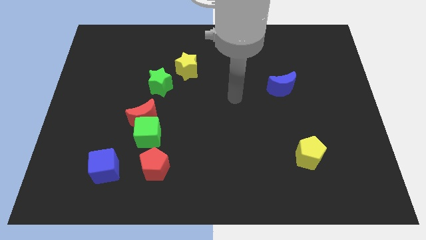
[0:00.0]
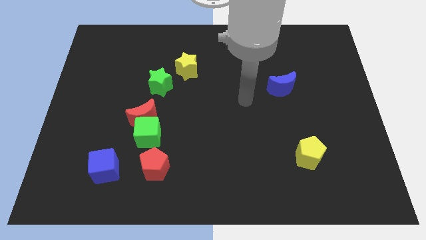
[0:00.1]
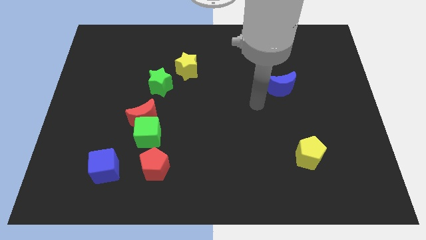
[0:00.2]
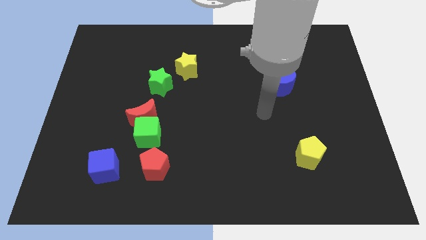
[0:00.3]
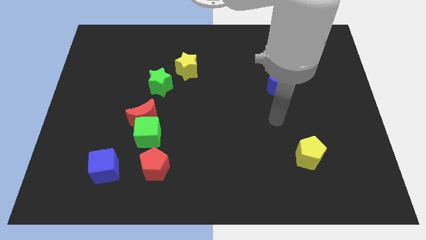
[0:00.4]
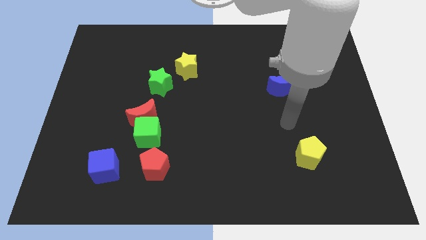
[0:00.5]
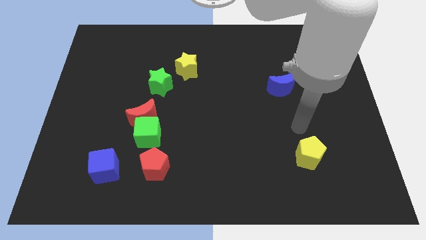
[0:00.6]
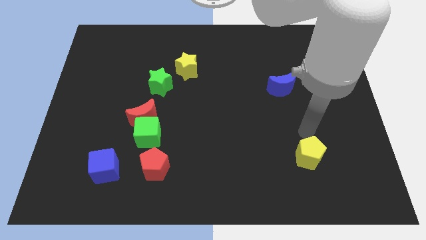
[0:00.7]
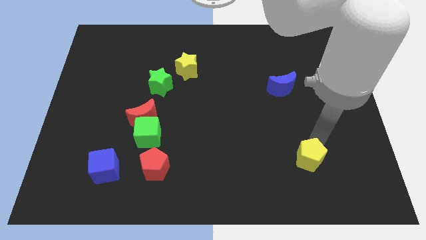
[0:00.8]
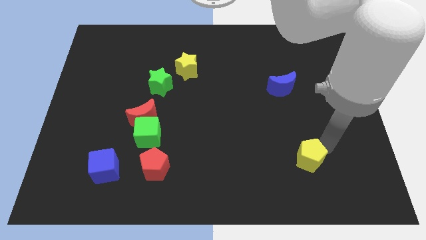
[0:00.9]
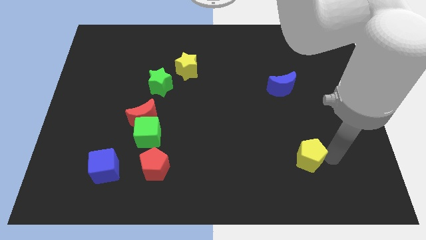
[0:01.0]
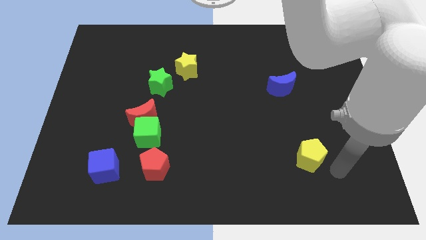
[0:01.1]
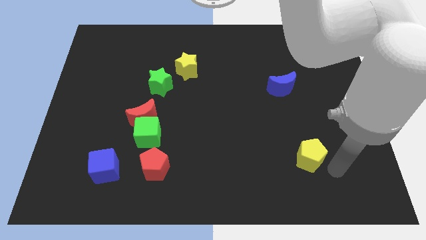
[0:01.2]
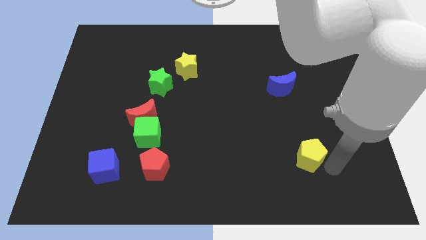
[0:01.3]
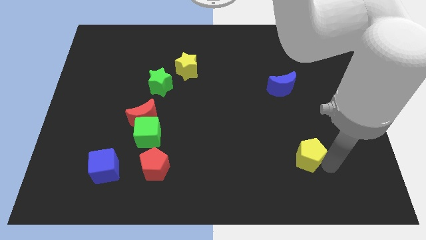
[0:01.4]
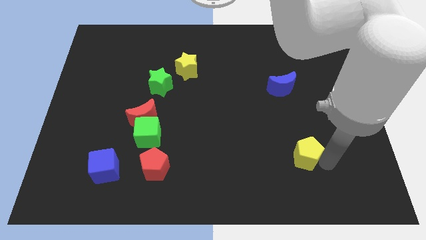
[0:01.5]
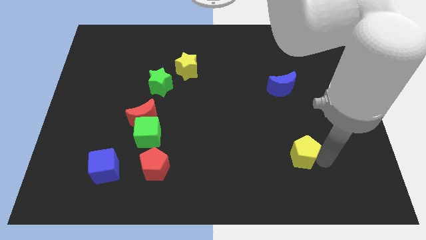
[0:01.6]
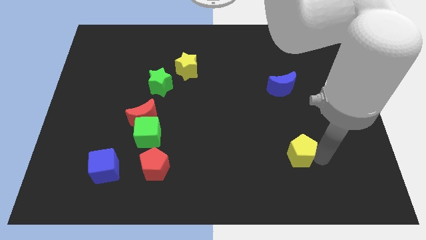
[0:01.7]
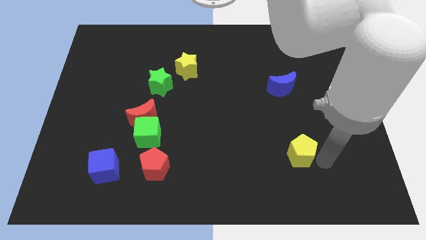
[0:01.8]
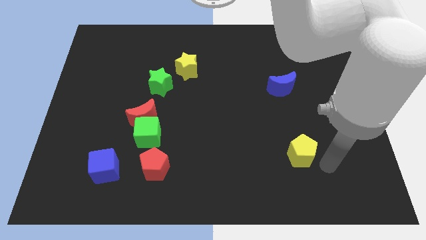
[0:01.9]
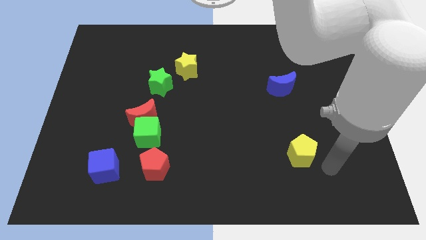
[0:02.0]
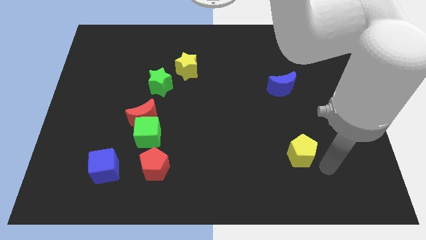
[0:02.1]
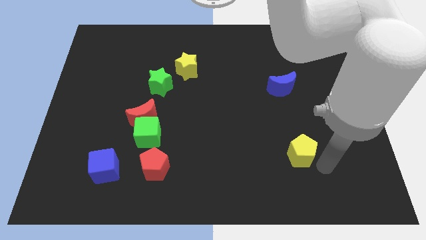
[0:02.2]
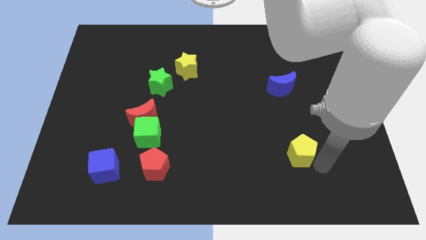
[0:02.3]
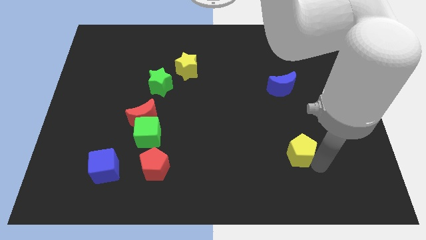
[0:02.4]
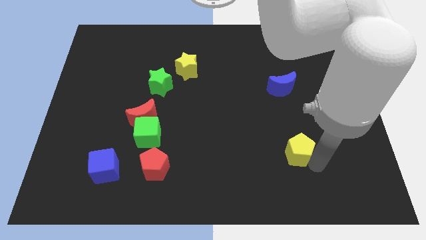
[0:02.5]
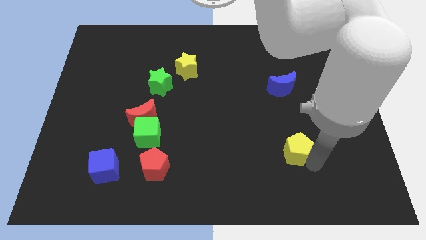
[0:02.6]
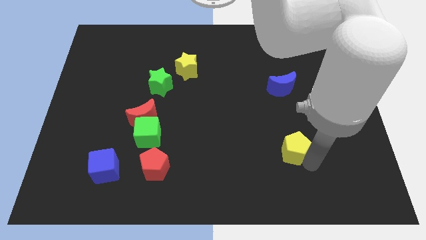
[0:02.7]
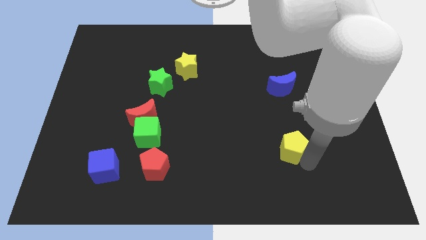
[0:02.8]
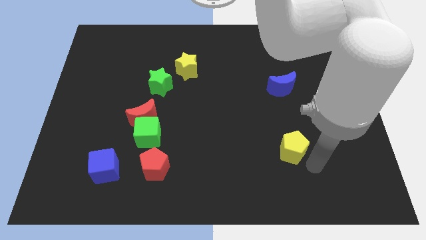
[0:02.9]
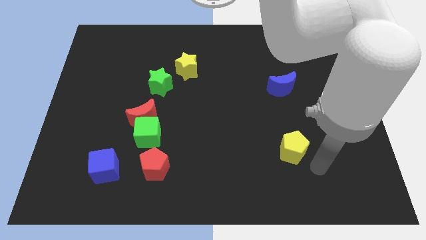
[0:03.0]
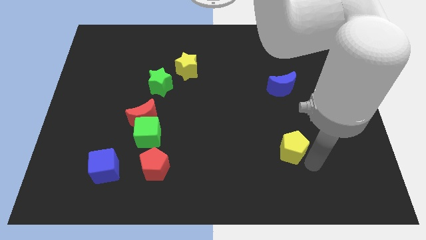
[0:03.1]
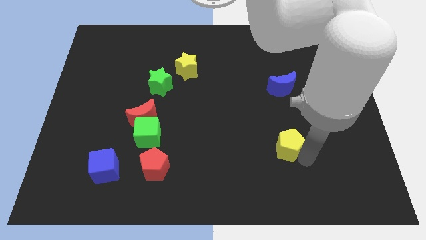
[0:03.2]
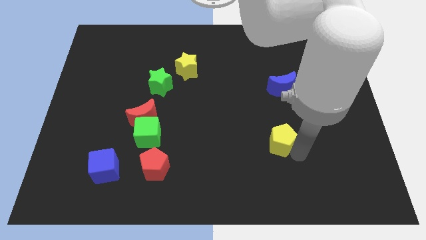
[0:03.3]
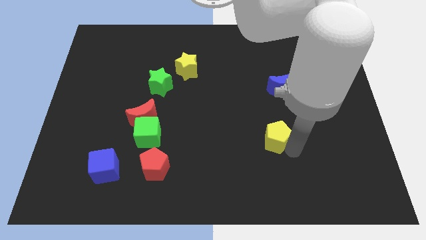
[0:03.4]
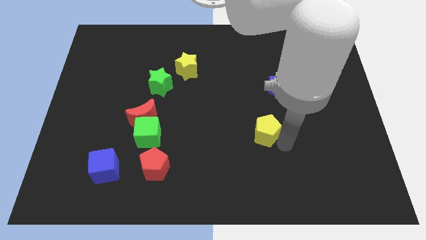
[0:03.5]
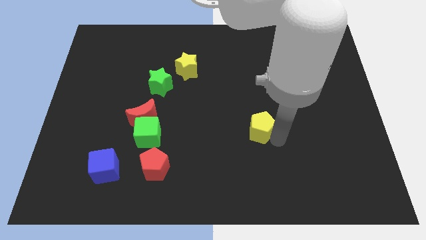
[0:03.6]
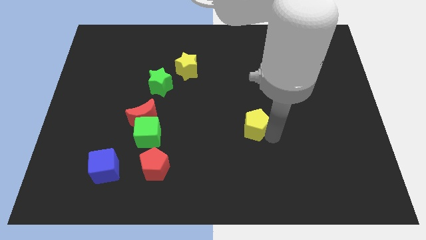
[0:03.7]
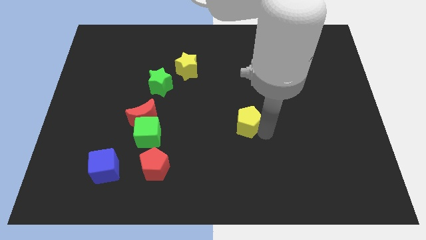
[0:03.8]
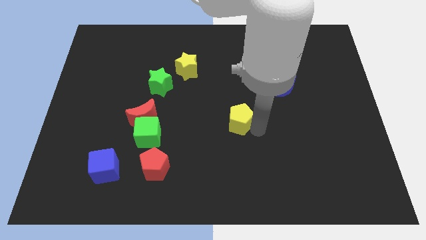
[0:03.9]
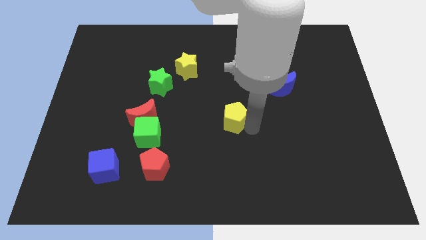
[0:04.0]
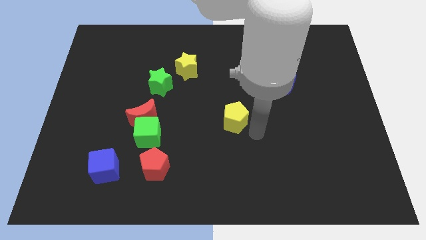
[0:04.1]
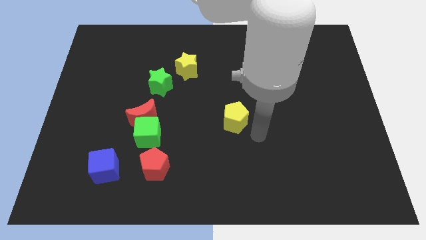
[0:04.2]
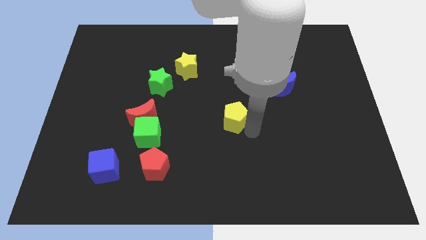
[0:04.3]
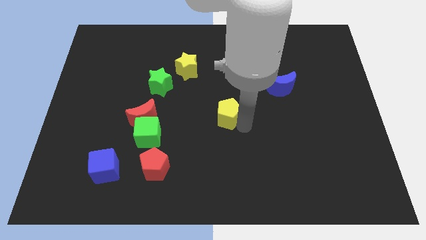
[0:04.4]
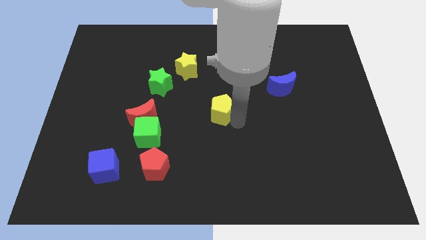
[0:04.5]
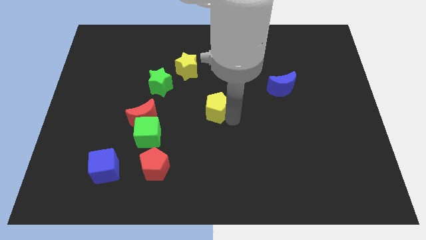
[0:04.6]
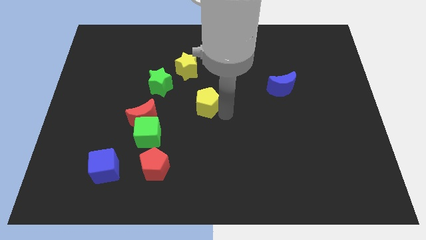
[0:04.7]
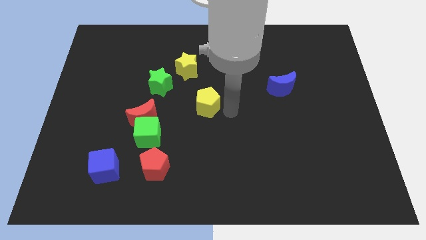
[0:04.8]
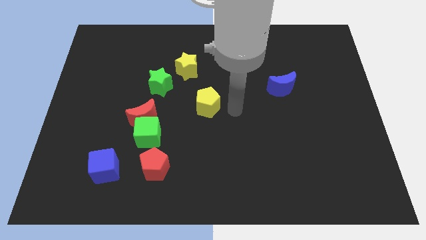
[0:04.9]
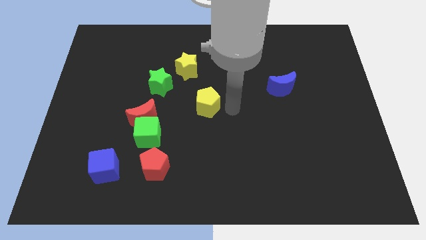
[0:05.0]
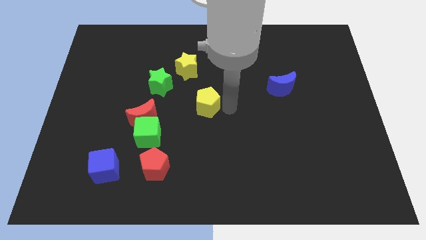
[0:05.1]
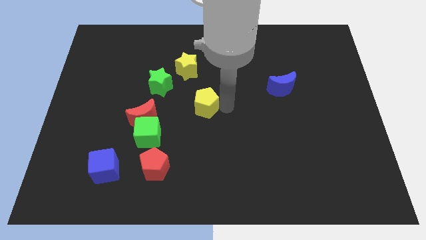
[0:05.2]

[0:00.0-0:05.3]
slide the yellow pentagon to the bottom of the yellow star

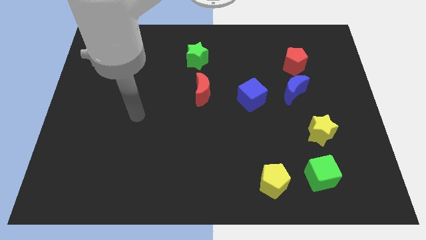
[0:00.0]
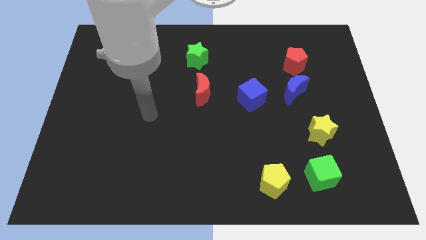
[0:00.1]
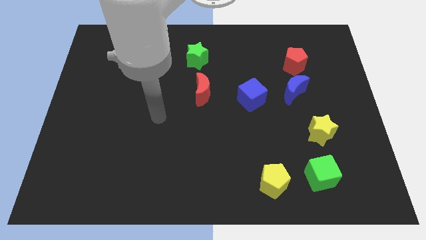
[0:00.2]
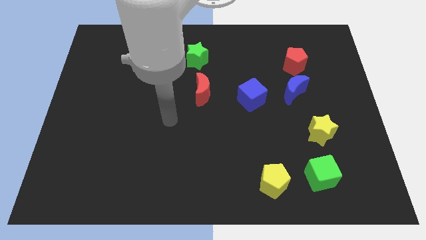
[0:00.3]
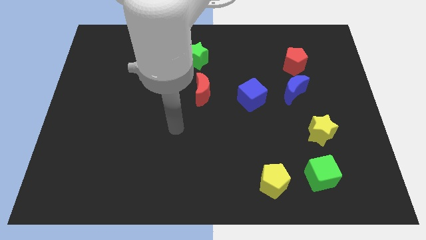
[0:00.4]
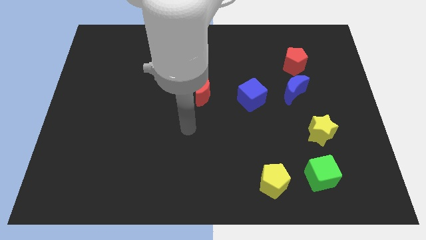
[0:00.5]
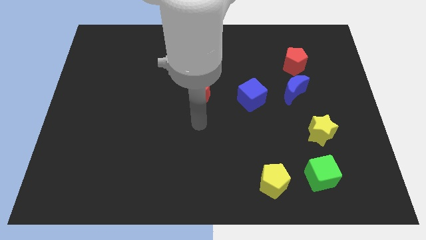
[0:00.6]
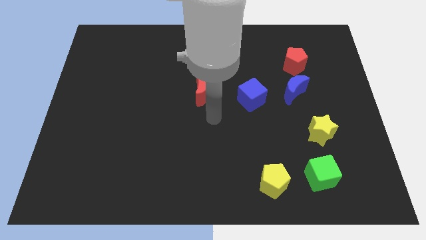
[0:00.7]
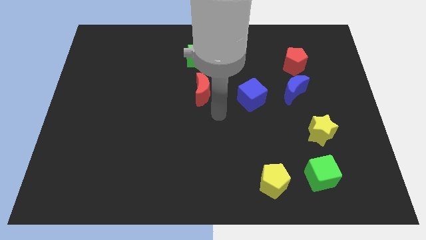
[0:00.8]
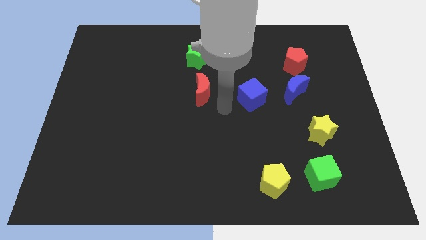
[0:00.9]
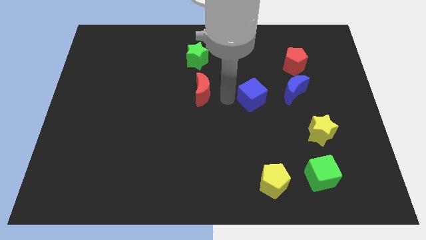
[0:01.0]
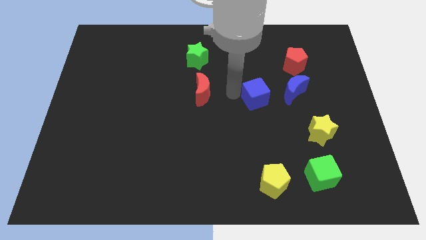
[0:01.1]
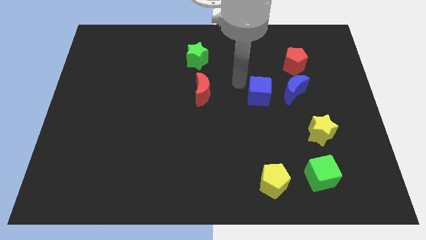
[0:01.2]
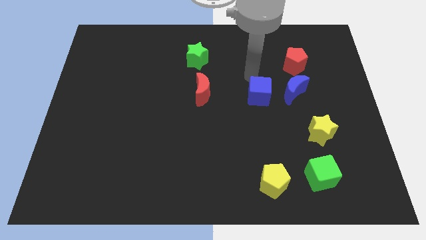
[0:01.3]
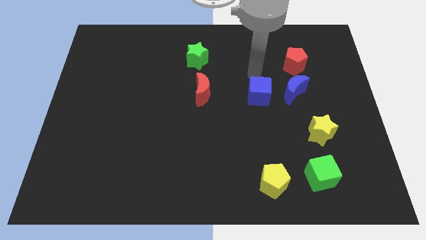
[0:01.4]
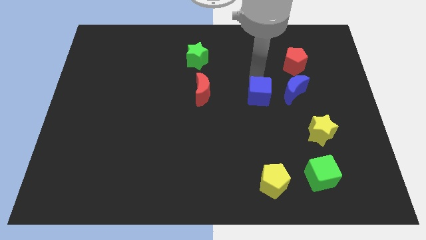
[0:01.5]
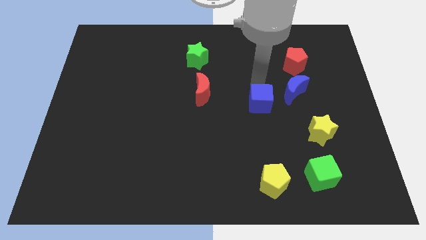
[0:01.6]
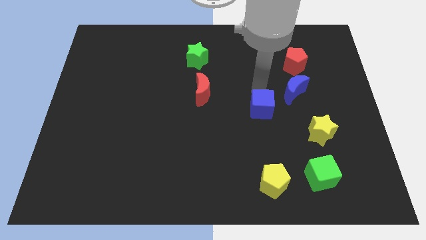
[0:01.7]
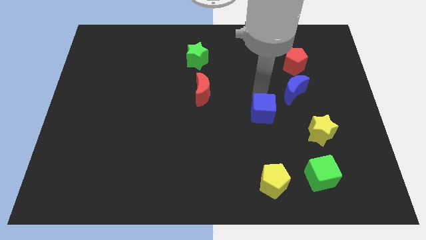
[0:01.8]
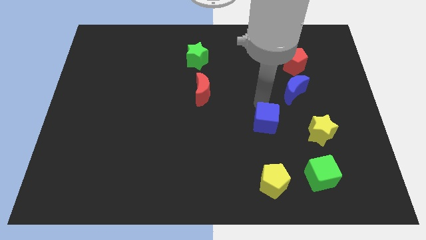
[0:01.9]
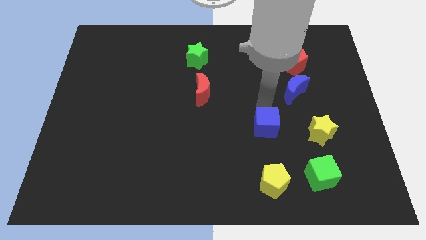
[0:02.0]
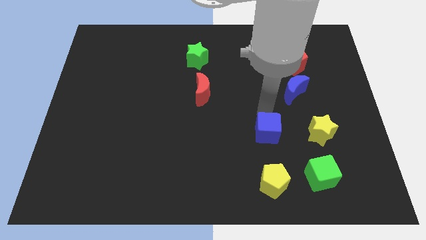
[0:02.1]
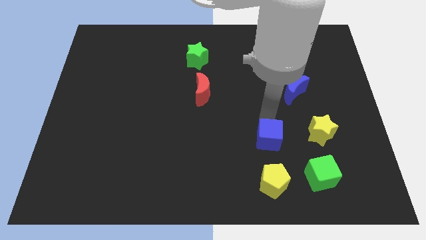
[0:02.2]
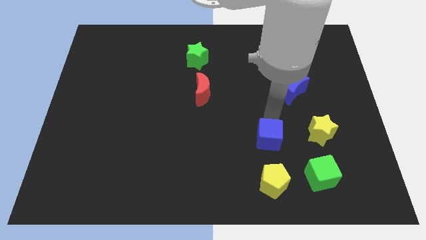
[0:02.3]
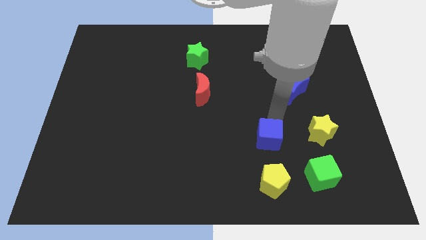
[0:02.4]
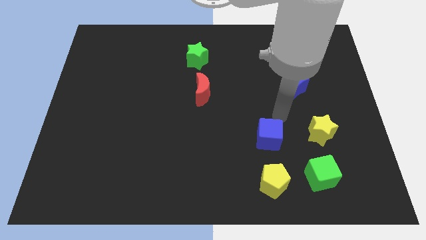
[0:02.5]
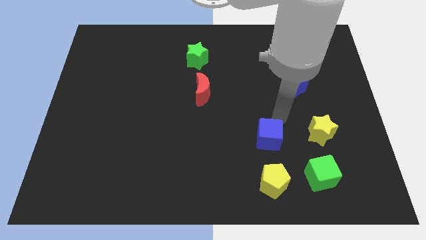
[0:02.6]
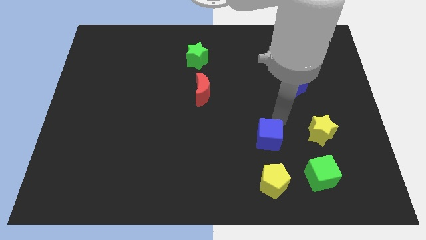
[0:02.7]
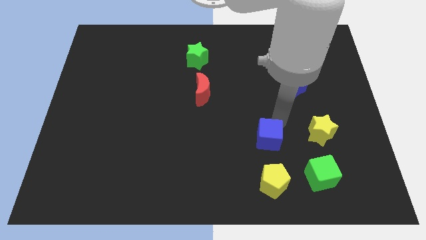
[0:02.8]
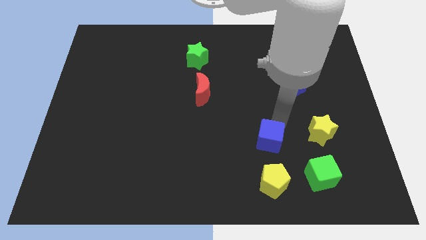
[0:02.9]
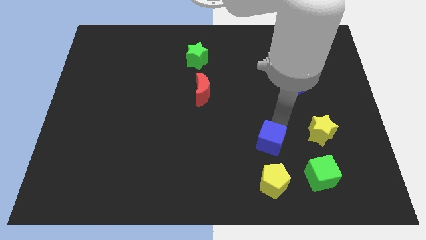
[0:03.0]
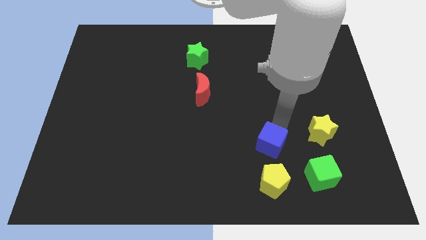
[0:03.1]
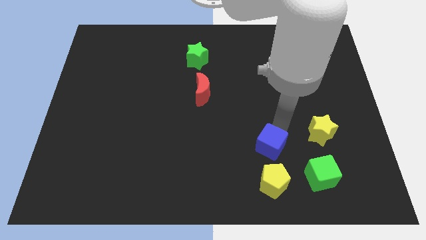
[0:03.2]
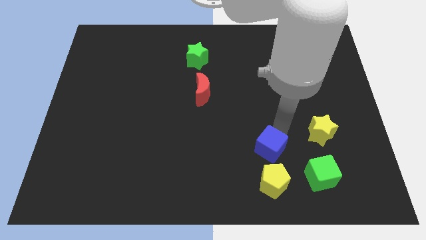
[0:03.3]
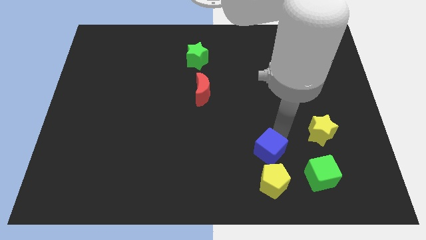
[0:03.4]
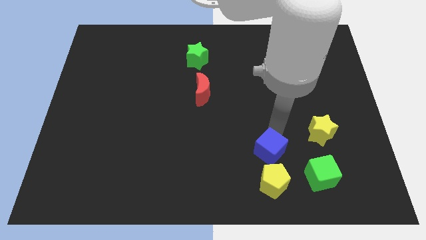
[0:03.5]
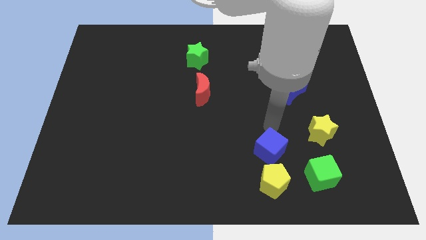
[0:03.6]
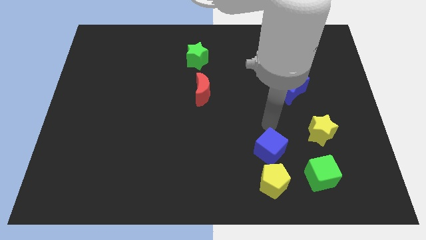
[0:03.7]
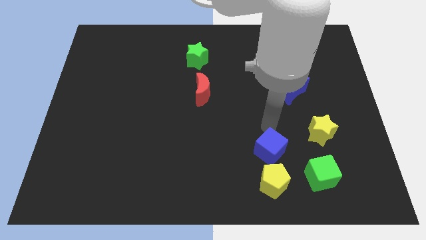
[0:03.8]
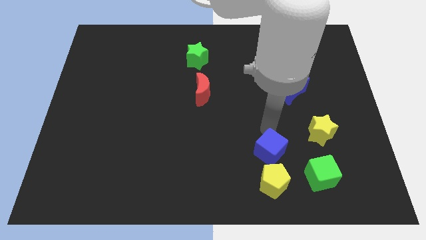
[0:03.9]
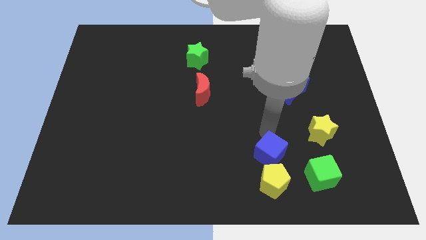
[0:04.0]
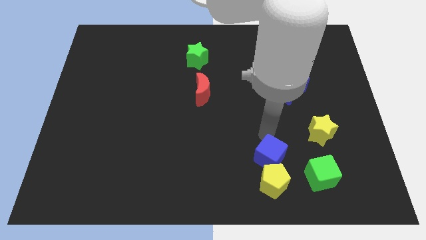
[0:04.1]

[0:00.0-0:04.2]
slide the blue cube left of the green cube
